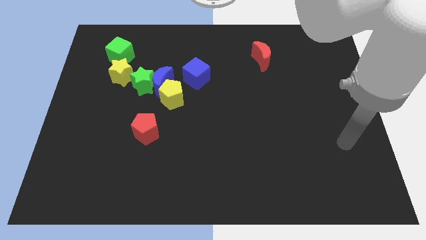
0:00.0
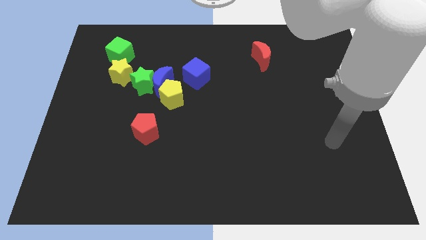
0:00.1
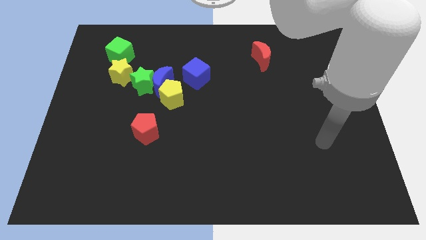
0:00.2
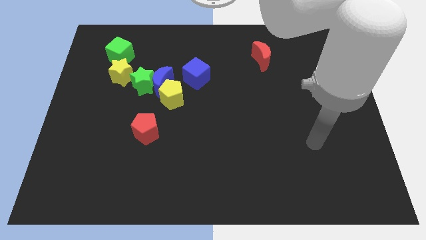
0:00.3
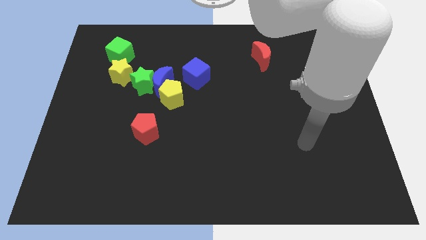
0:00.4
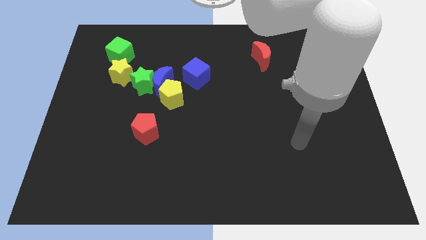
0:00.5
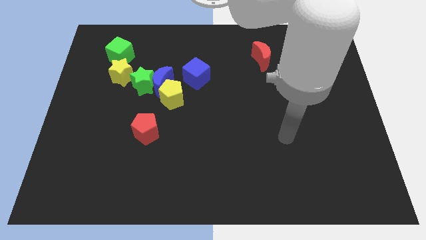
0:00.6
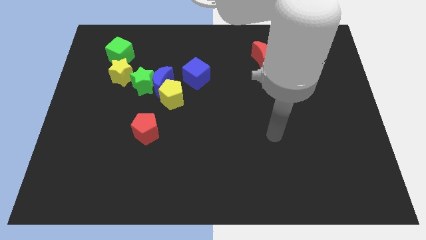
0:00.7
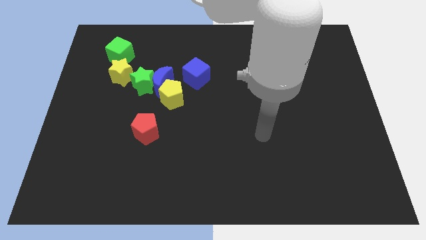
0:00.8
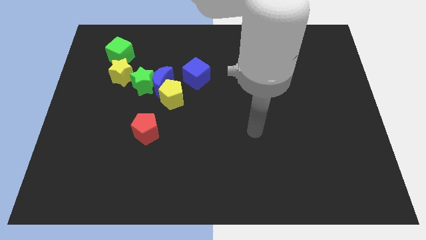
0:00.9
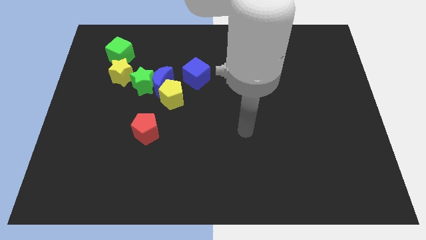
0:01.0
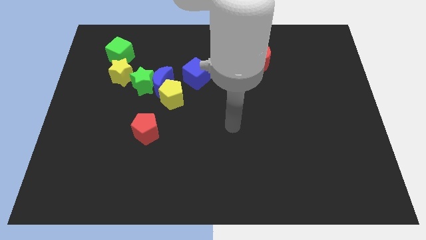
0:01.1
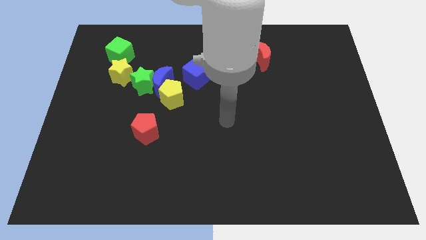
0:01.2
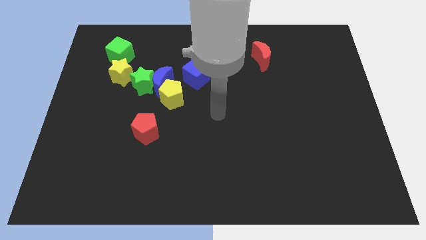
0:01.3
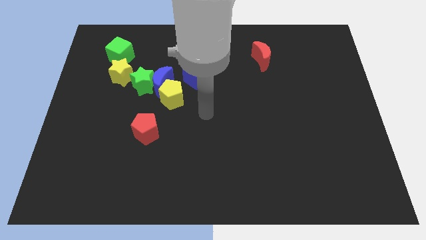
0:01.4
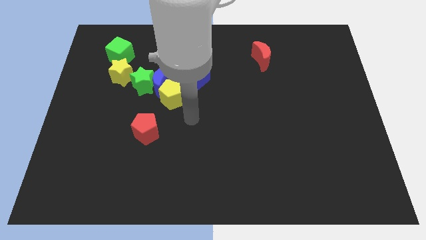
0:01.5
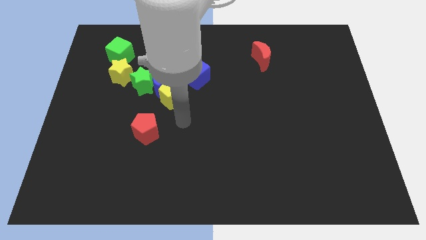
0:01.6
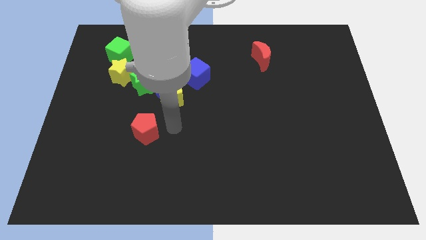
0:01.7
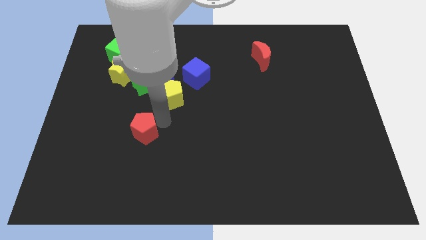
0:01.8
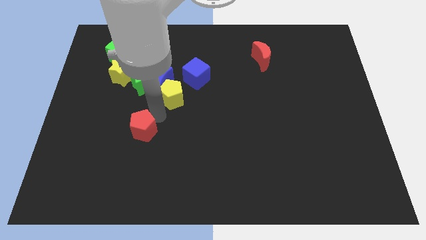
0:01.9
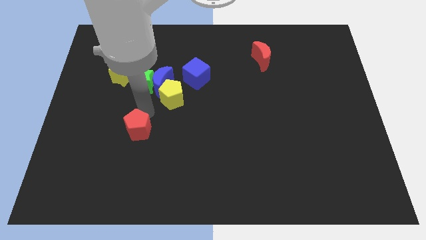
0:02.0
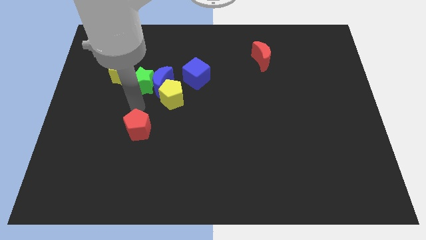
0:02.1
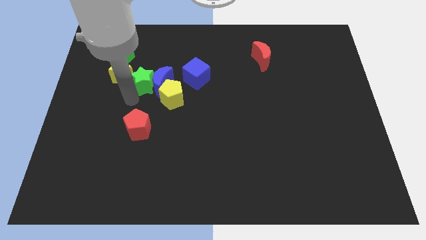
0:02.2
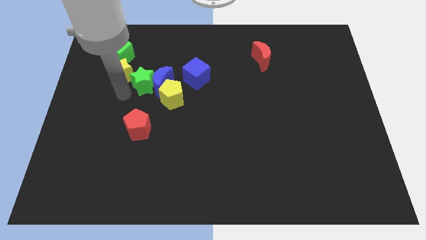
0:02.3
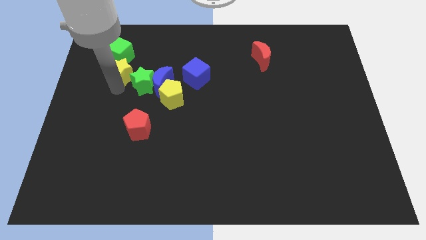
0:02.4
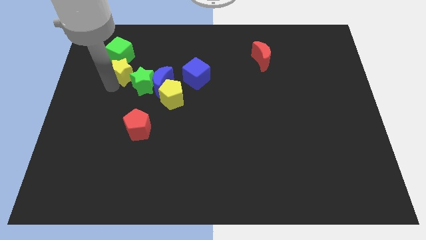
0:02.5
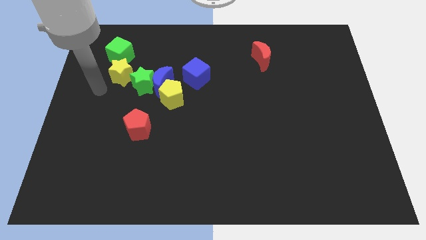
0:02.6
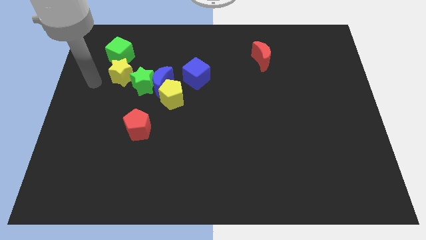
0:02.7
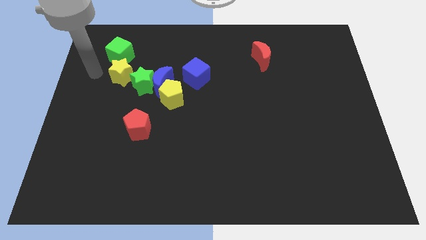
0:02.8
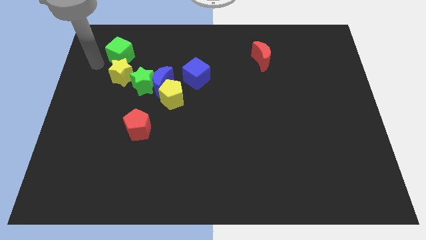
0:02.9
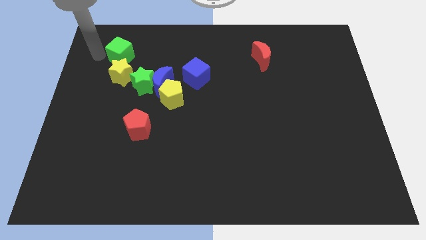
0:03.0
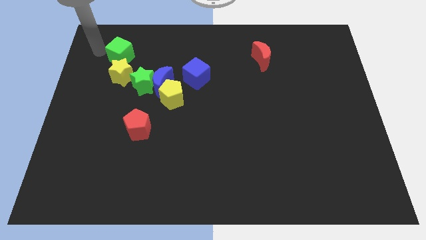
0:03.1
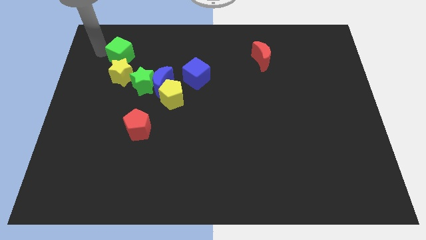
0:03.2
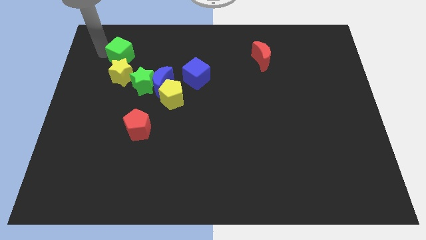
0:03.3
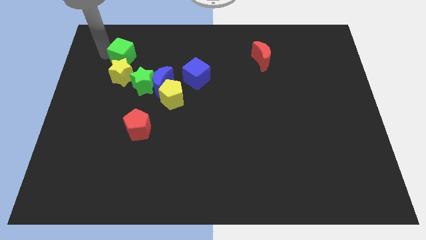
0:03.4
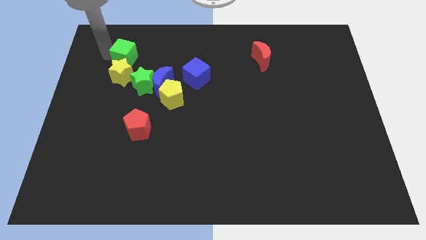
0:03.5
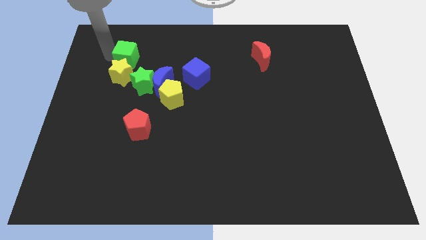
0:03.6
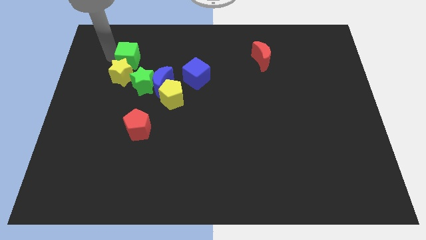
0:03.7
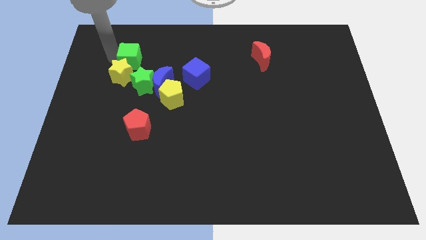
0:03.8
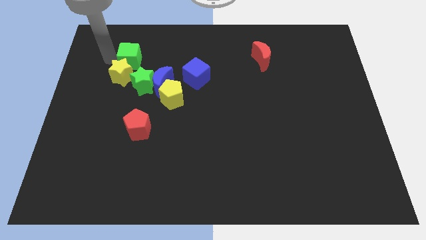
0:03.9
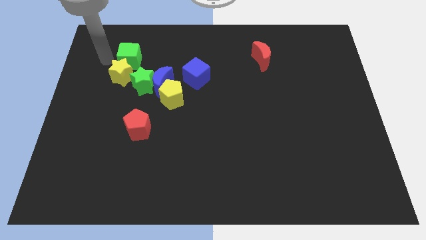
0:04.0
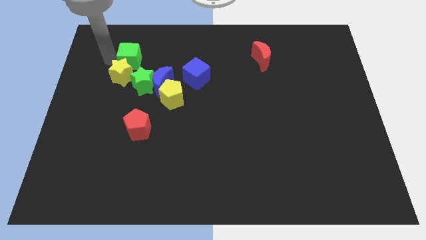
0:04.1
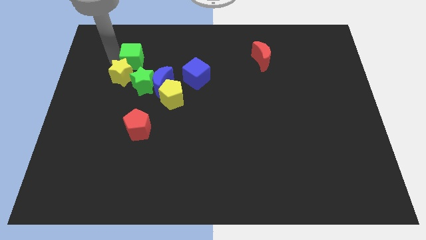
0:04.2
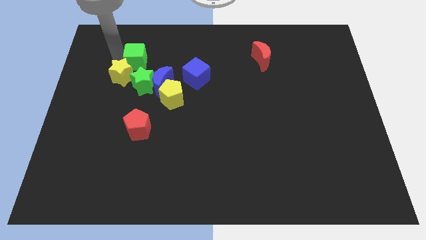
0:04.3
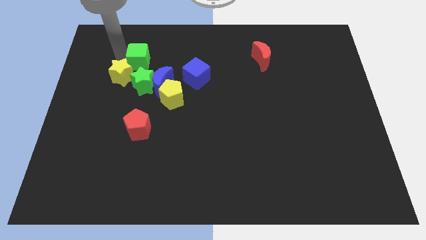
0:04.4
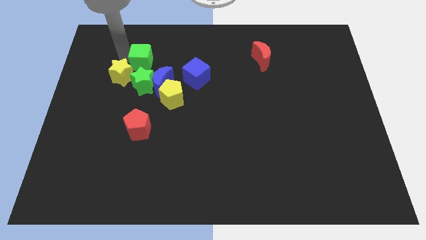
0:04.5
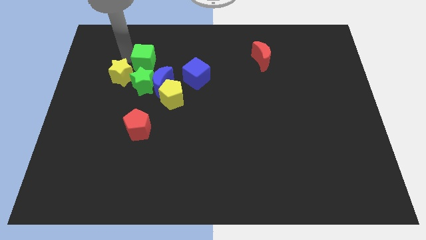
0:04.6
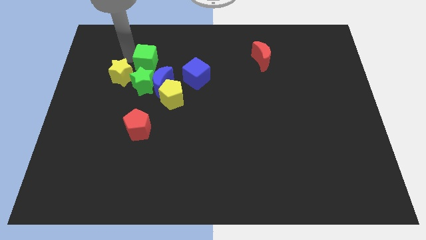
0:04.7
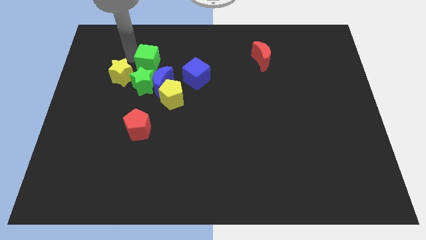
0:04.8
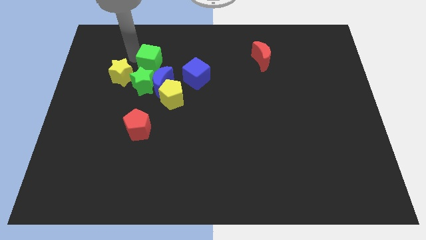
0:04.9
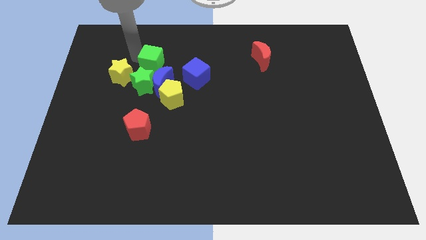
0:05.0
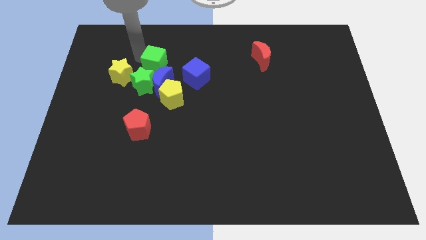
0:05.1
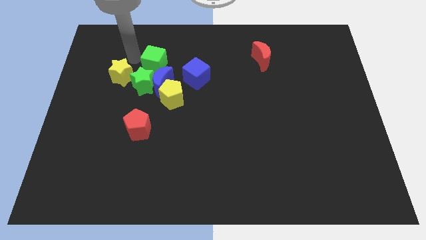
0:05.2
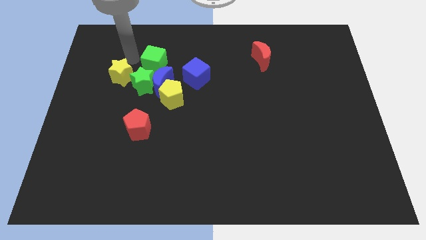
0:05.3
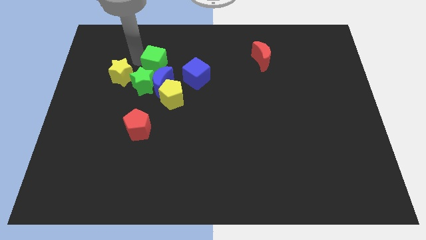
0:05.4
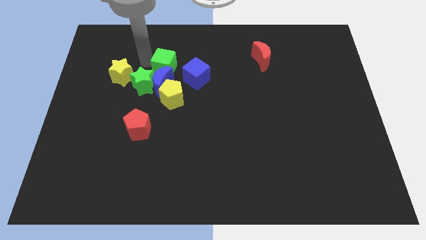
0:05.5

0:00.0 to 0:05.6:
push the green cube to the top right side of the blue moon
